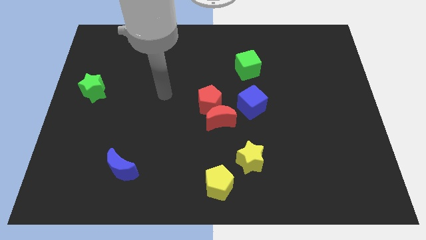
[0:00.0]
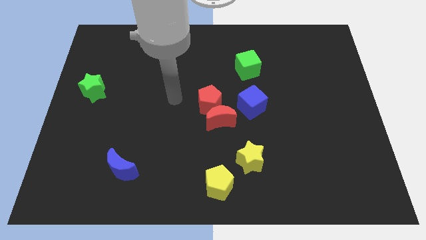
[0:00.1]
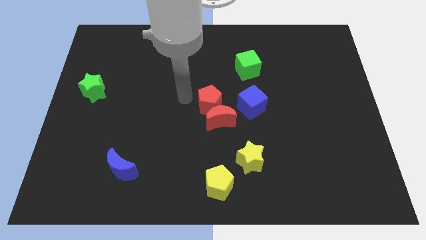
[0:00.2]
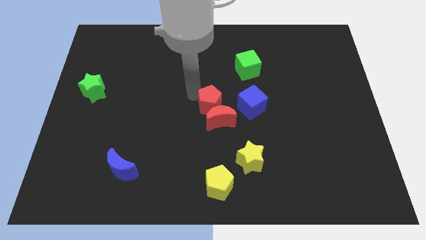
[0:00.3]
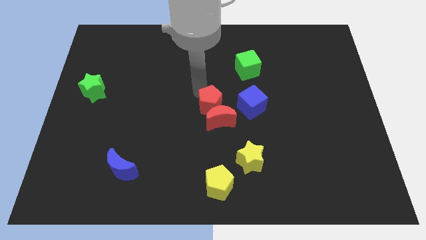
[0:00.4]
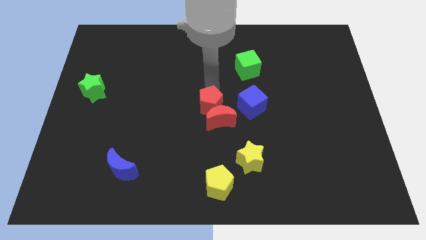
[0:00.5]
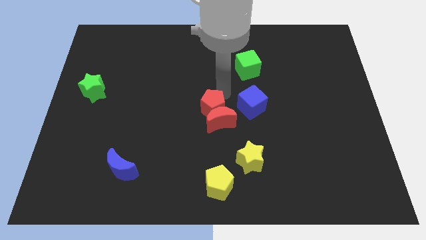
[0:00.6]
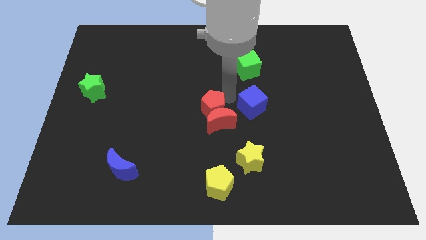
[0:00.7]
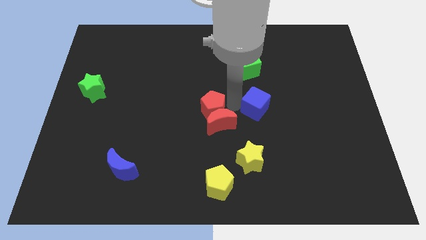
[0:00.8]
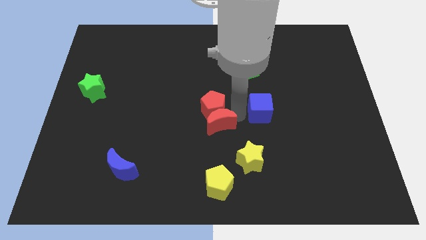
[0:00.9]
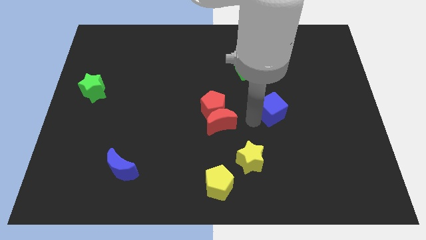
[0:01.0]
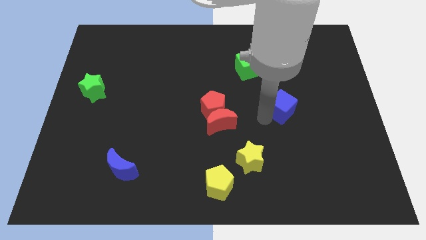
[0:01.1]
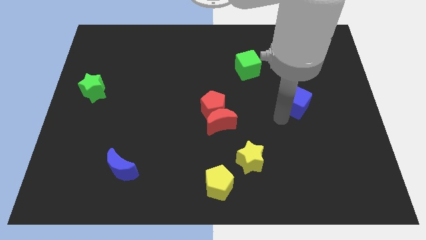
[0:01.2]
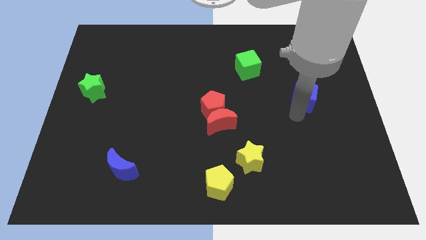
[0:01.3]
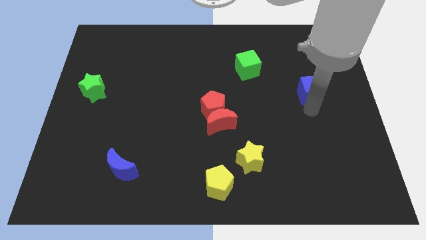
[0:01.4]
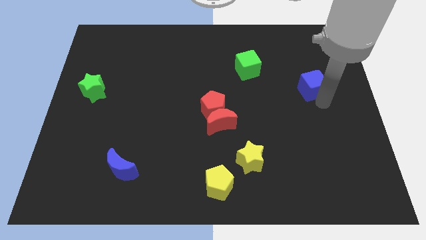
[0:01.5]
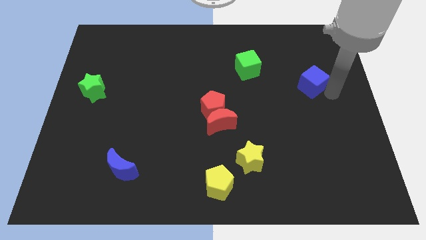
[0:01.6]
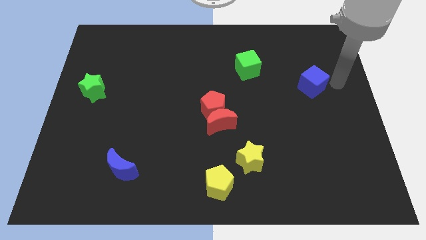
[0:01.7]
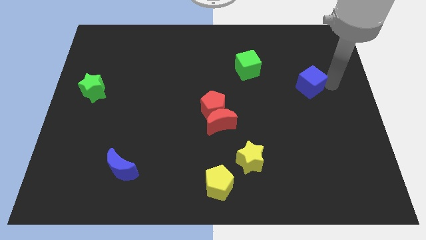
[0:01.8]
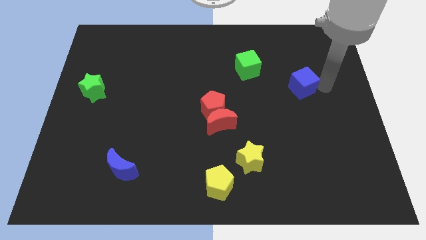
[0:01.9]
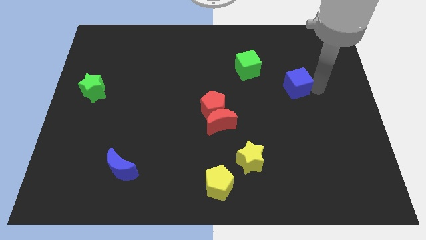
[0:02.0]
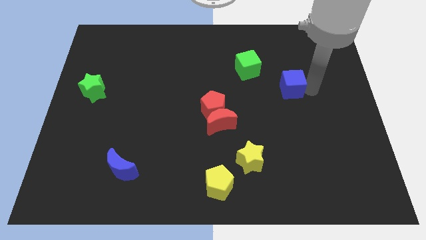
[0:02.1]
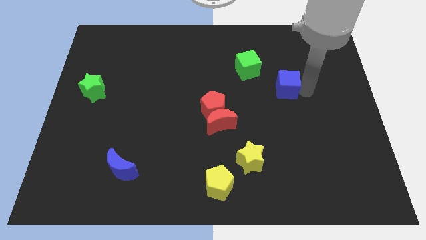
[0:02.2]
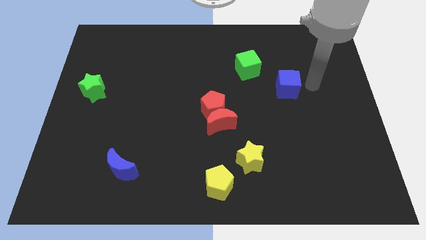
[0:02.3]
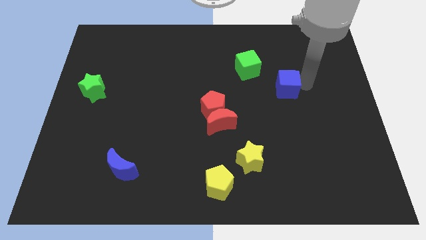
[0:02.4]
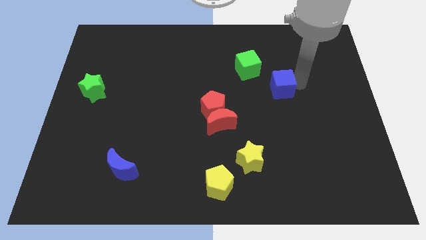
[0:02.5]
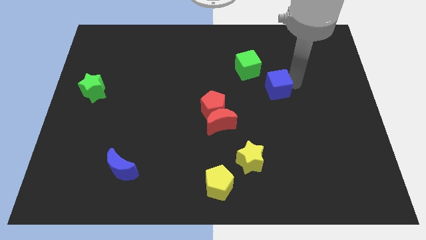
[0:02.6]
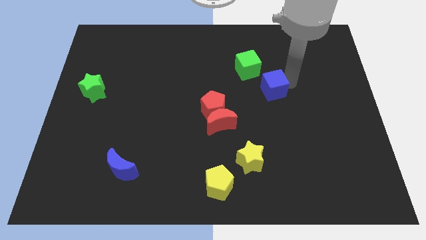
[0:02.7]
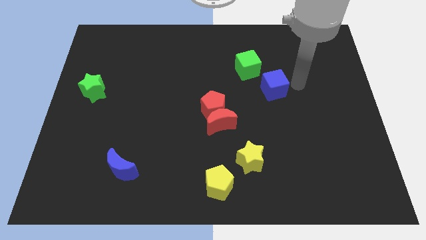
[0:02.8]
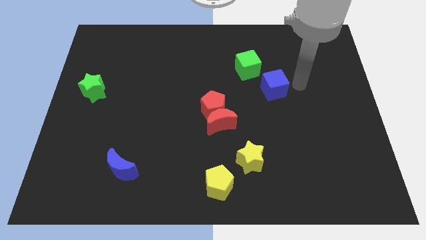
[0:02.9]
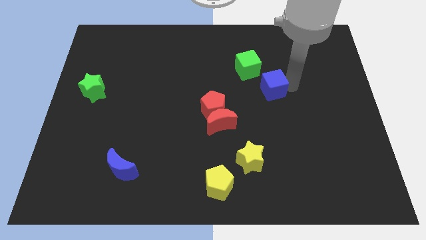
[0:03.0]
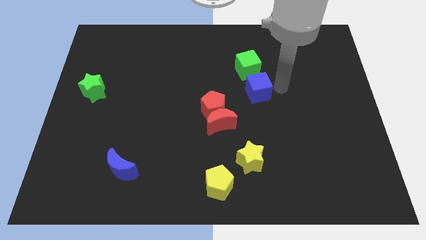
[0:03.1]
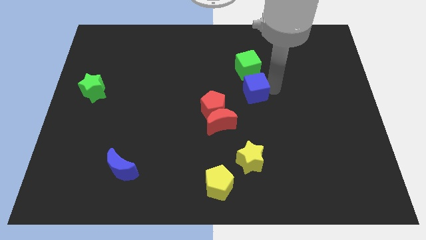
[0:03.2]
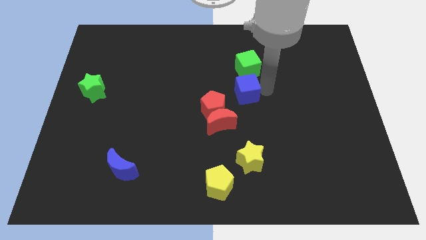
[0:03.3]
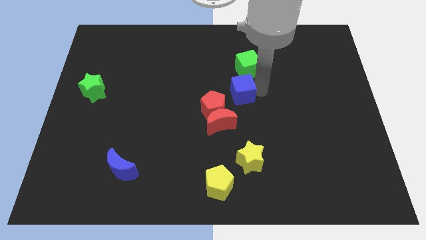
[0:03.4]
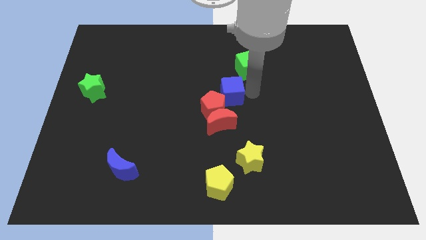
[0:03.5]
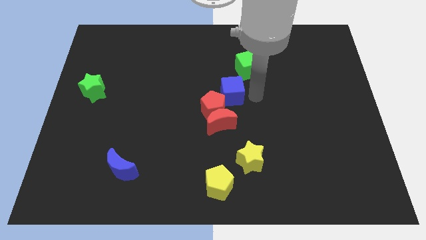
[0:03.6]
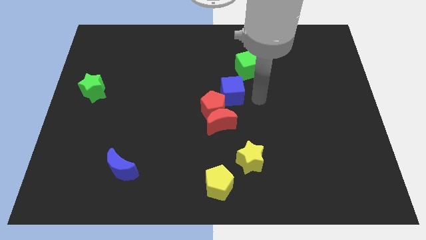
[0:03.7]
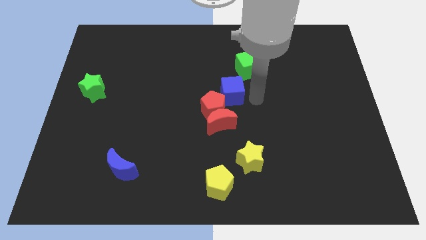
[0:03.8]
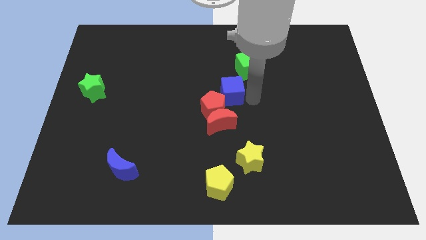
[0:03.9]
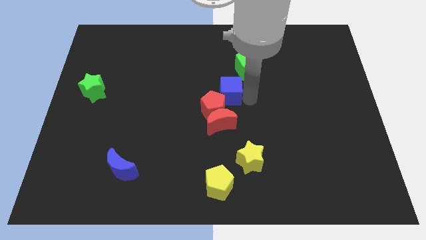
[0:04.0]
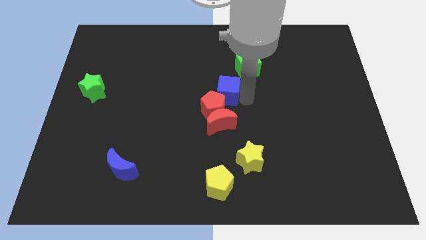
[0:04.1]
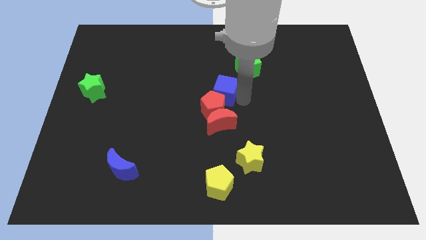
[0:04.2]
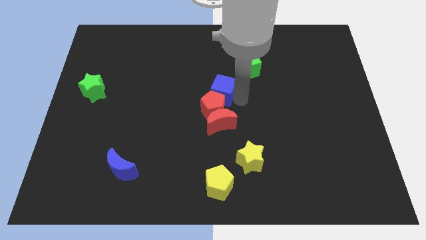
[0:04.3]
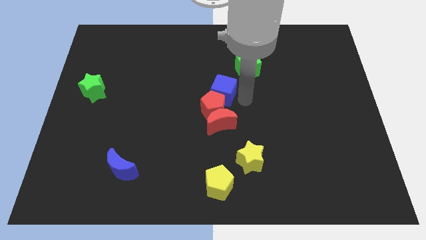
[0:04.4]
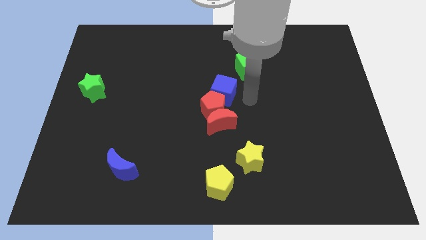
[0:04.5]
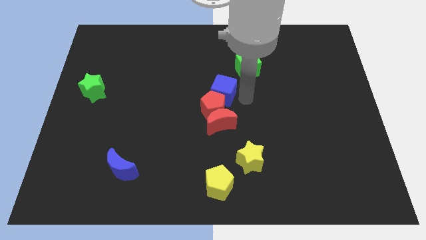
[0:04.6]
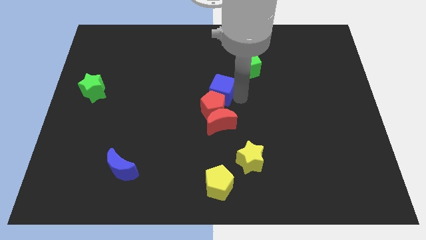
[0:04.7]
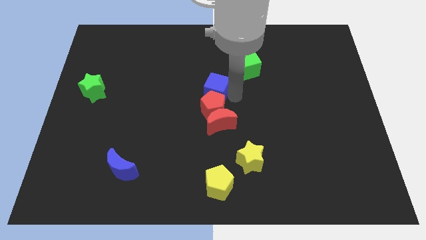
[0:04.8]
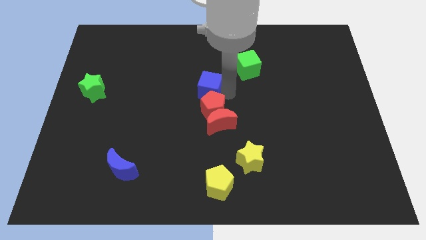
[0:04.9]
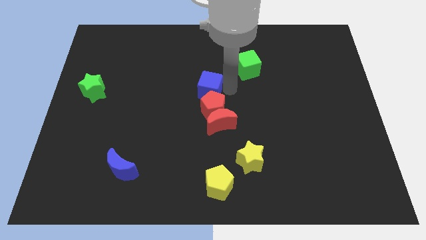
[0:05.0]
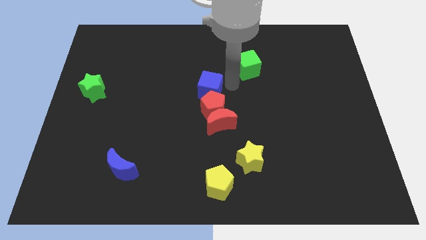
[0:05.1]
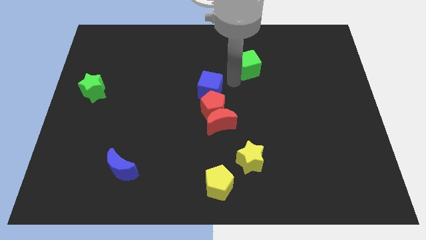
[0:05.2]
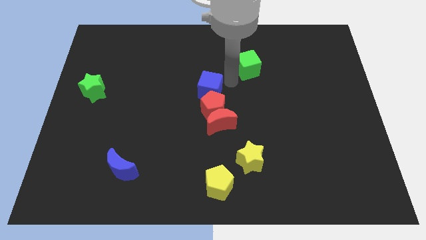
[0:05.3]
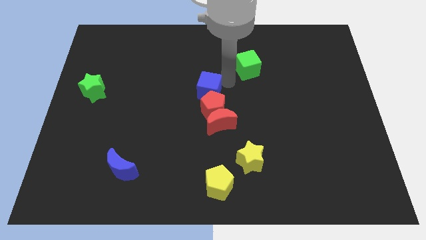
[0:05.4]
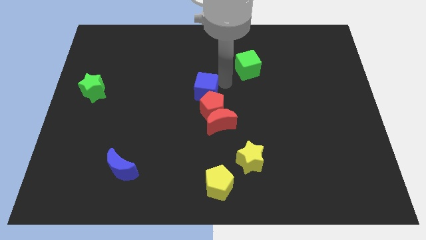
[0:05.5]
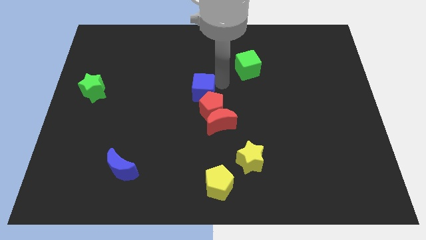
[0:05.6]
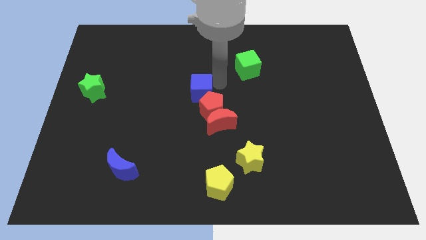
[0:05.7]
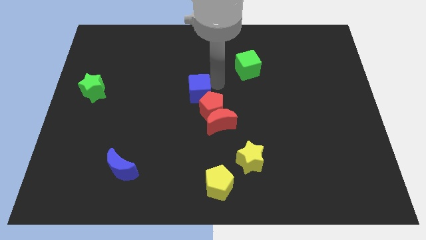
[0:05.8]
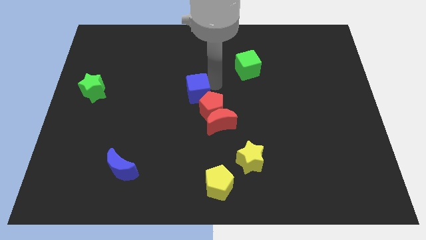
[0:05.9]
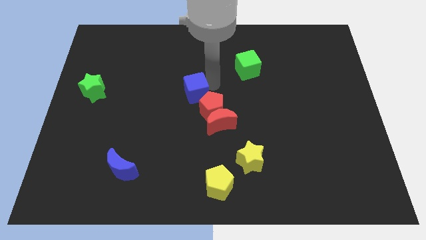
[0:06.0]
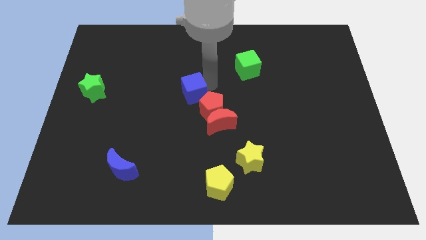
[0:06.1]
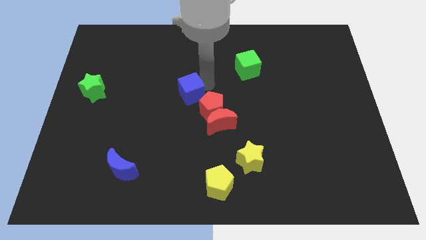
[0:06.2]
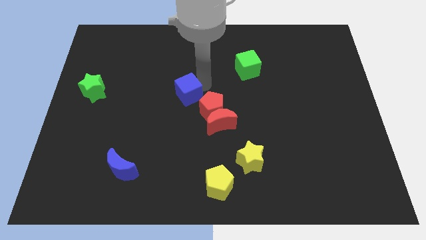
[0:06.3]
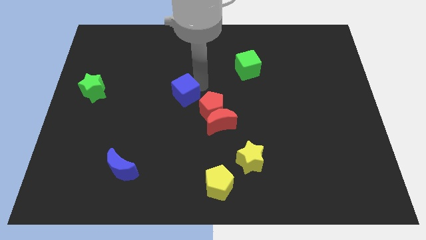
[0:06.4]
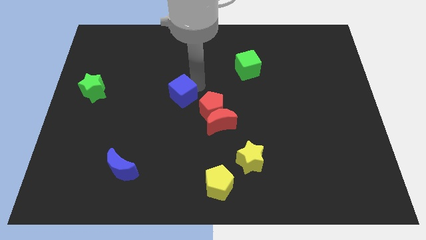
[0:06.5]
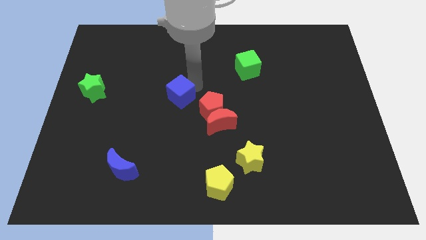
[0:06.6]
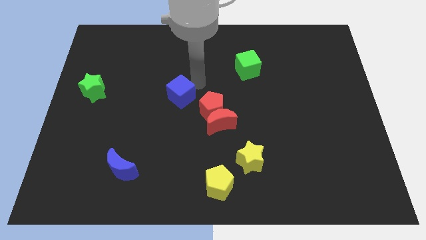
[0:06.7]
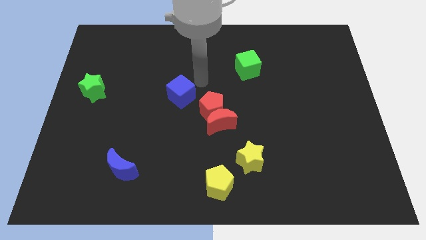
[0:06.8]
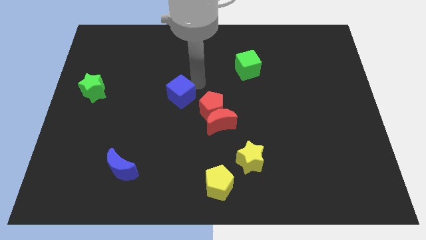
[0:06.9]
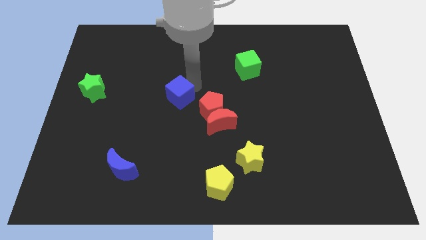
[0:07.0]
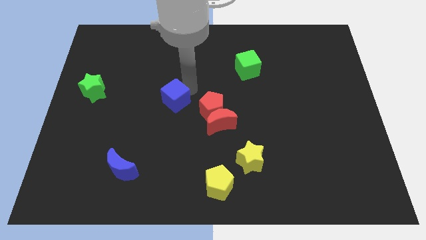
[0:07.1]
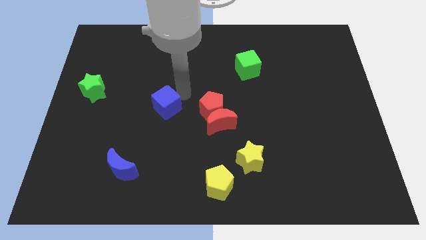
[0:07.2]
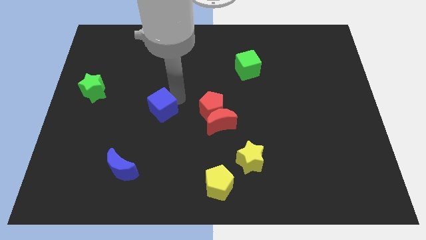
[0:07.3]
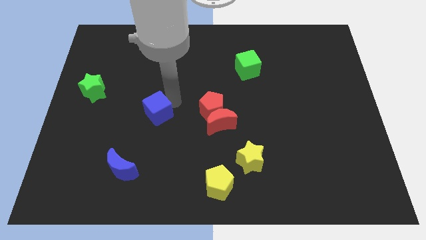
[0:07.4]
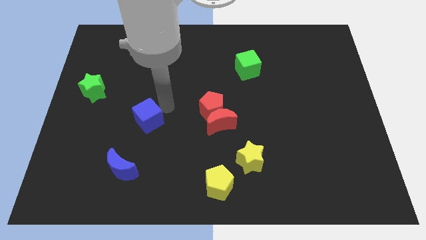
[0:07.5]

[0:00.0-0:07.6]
move the blue cube above the blue moon
